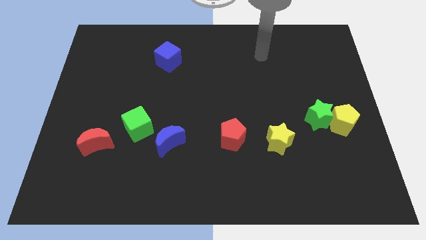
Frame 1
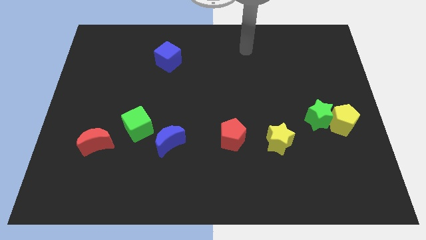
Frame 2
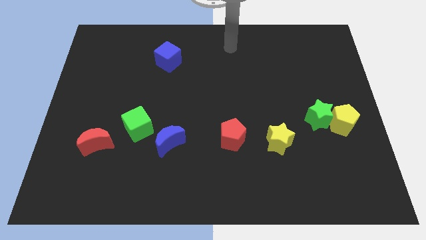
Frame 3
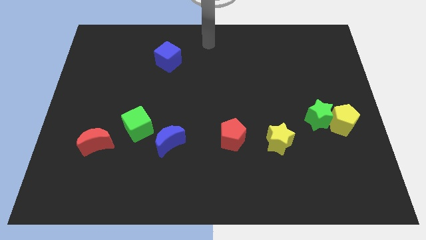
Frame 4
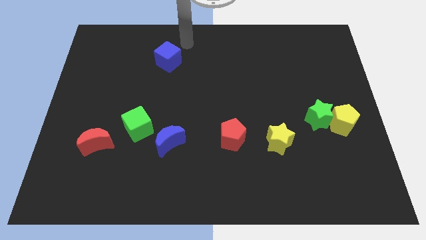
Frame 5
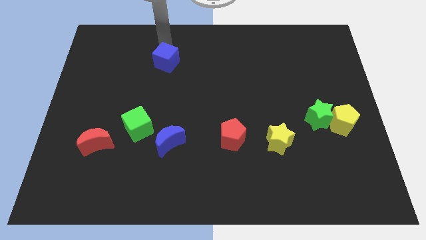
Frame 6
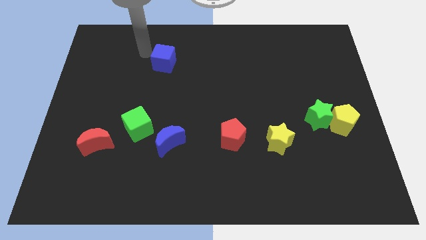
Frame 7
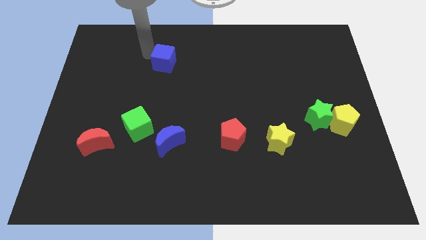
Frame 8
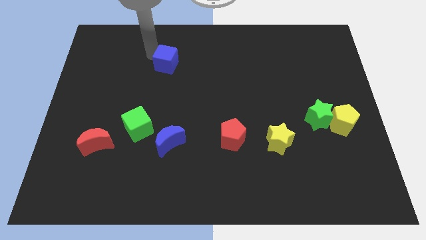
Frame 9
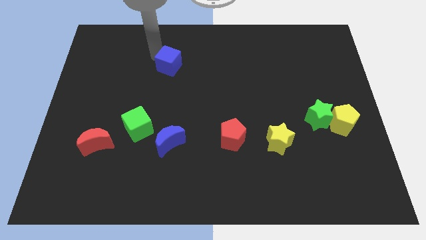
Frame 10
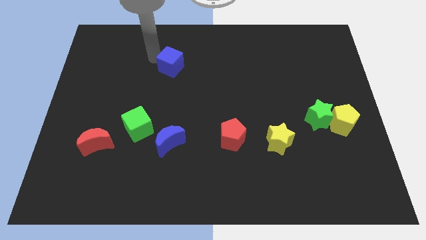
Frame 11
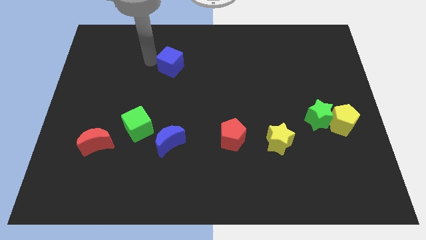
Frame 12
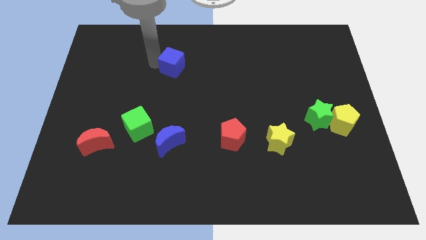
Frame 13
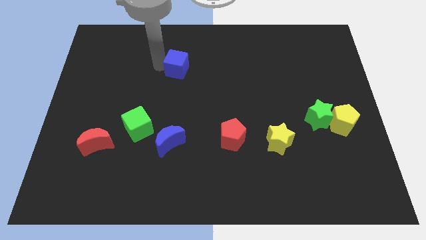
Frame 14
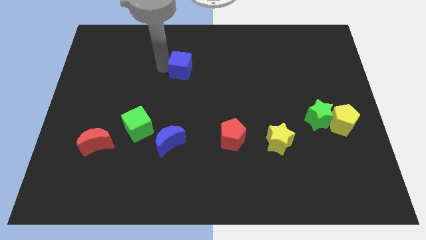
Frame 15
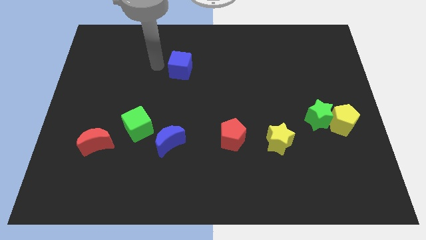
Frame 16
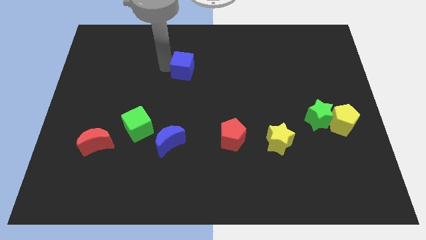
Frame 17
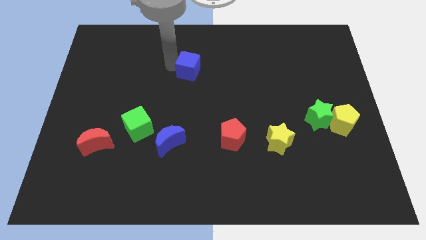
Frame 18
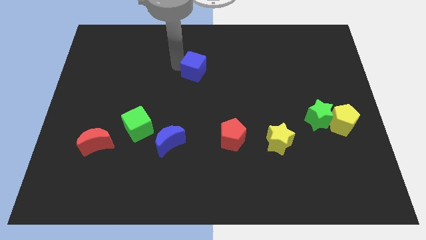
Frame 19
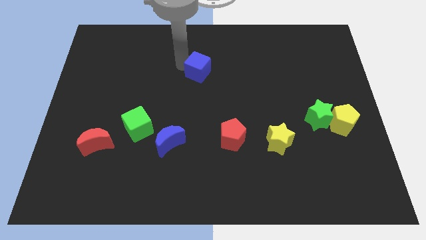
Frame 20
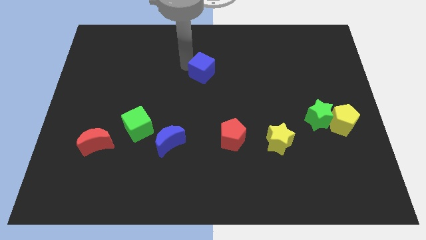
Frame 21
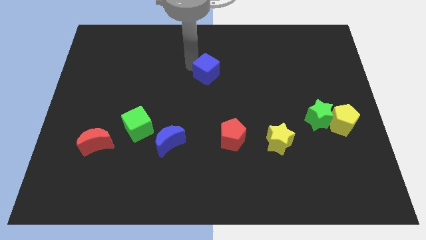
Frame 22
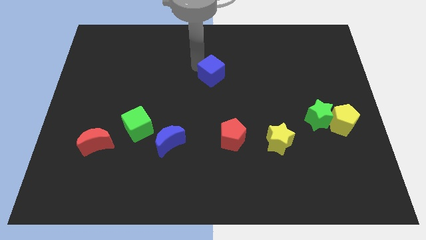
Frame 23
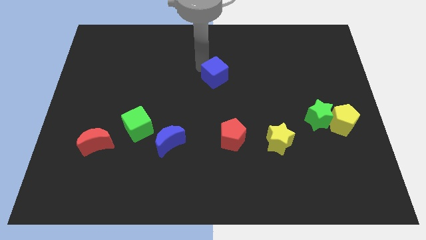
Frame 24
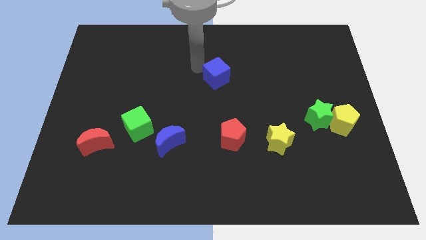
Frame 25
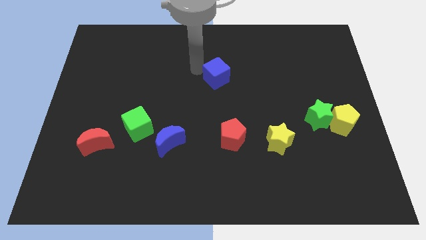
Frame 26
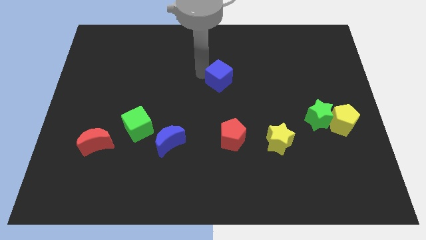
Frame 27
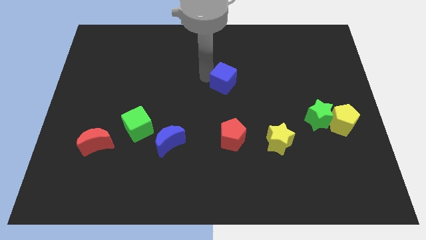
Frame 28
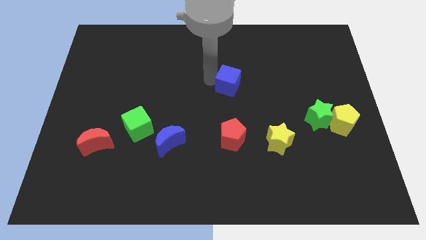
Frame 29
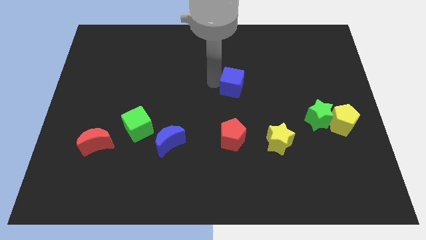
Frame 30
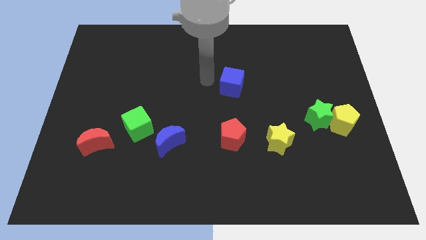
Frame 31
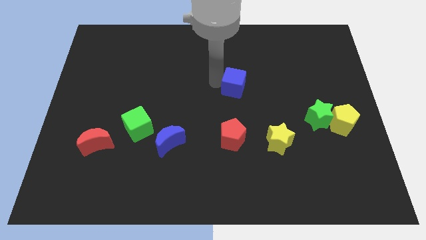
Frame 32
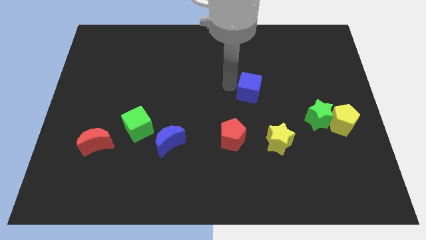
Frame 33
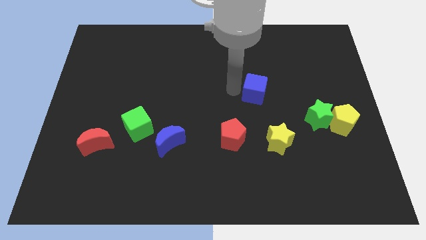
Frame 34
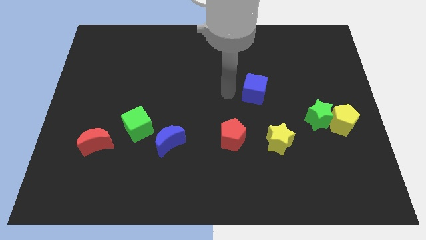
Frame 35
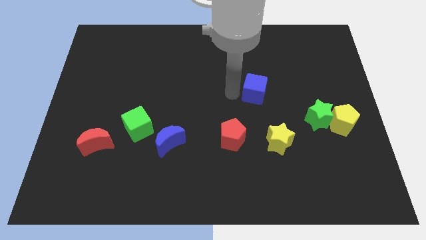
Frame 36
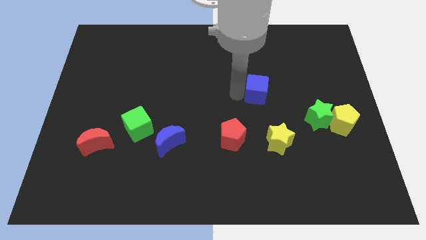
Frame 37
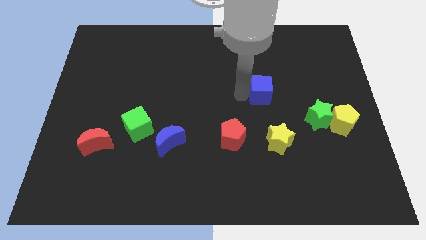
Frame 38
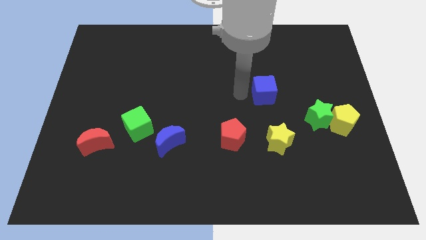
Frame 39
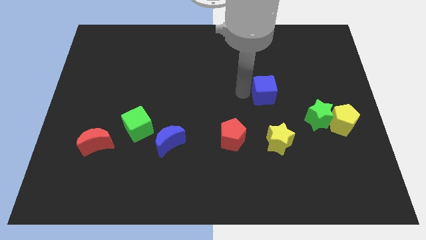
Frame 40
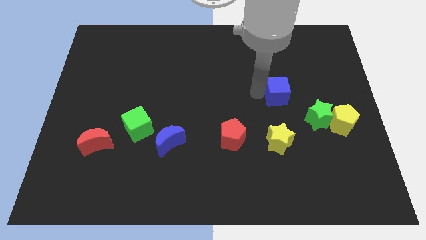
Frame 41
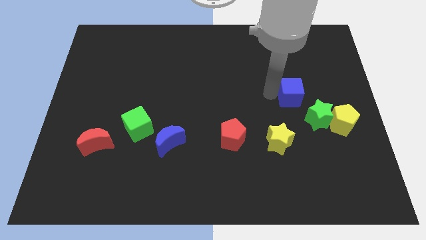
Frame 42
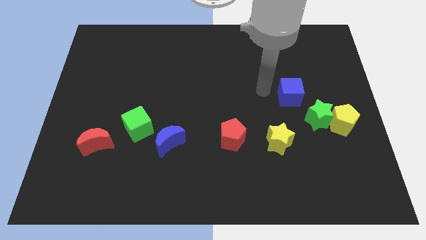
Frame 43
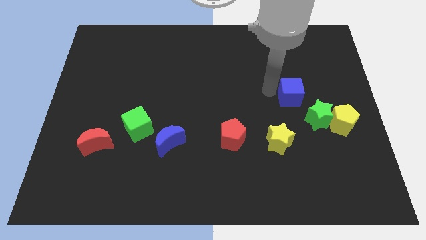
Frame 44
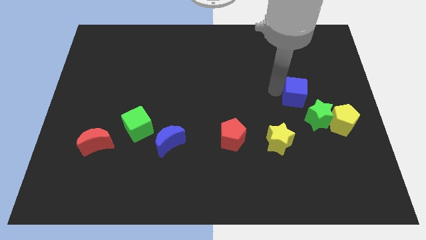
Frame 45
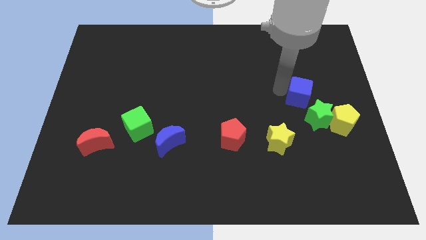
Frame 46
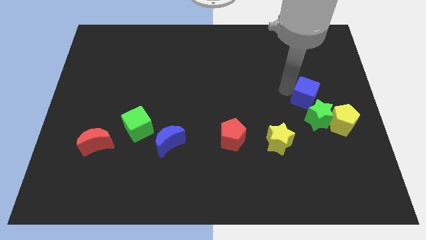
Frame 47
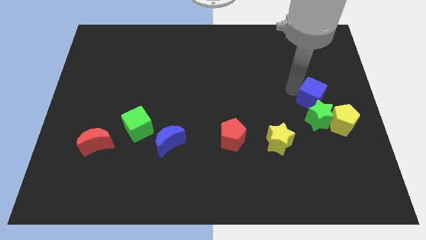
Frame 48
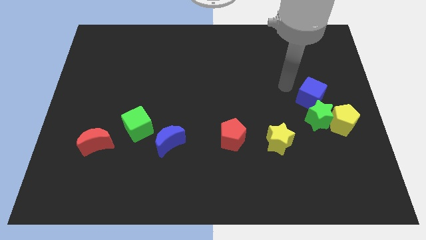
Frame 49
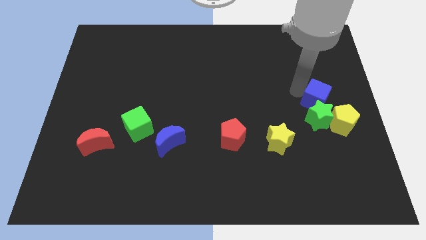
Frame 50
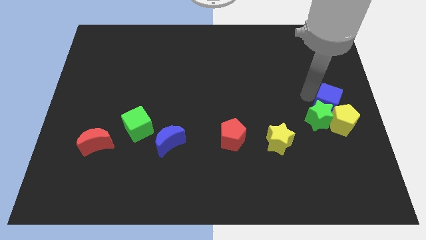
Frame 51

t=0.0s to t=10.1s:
push the blue cube close to the yellow pentagon

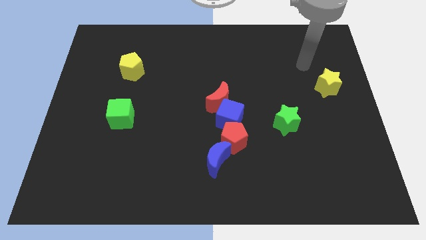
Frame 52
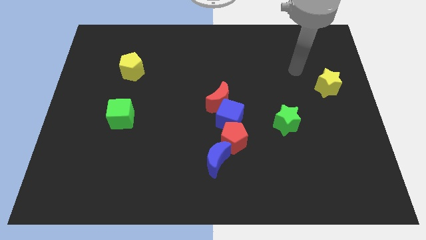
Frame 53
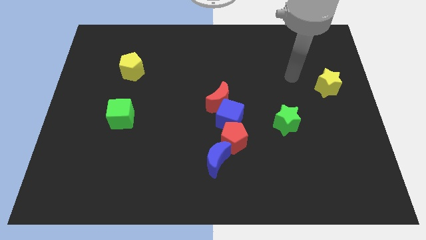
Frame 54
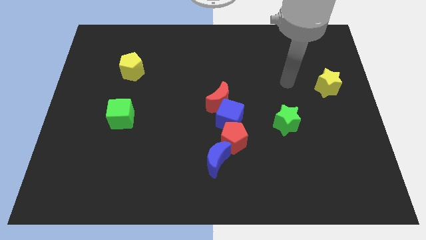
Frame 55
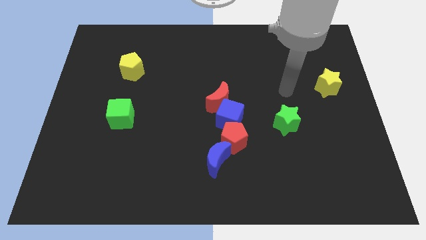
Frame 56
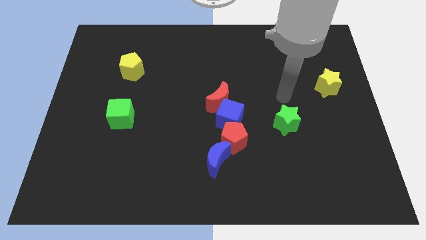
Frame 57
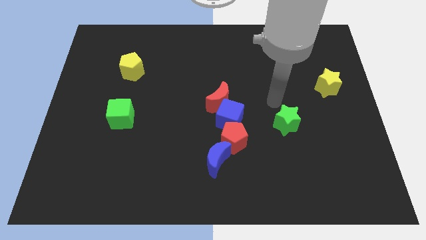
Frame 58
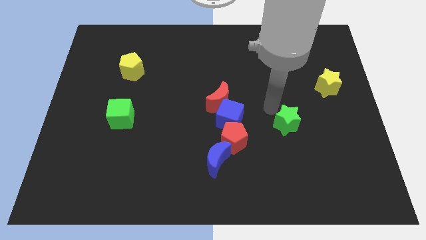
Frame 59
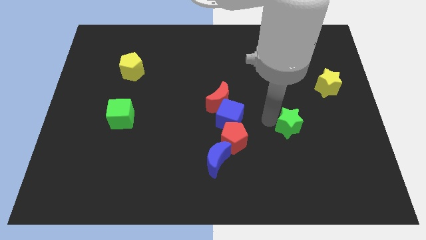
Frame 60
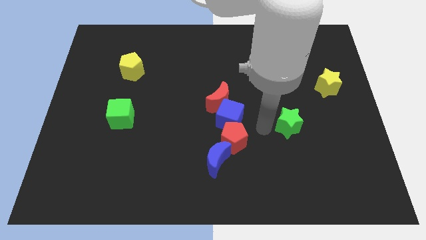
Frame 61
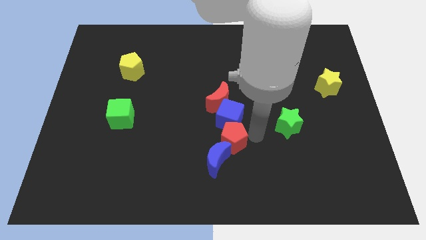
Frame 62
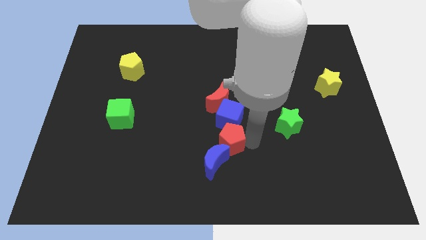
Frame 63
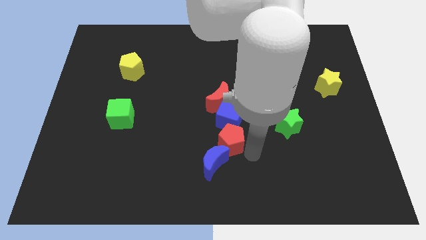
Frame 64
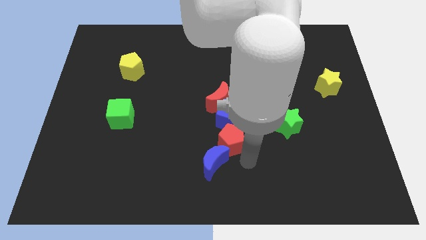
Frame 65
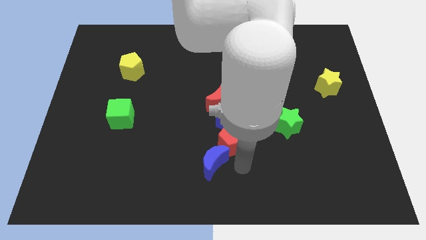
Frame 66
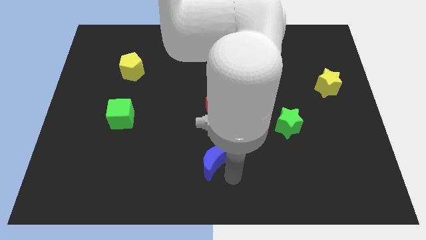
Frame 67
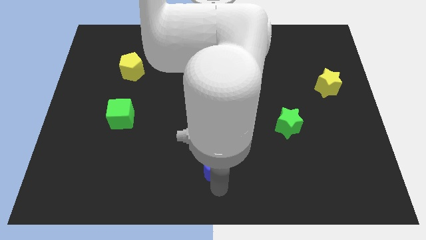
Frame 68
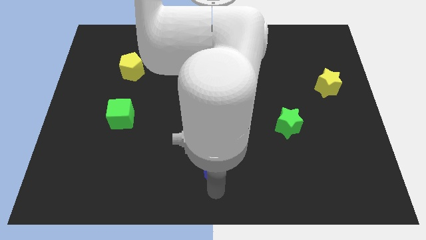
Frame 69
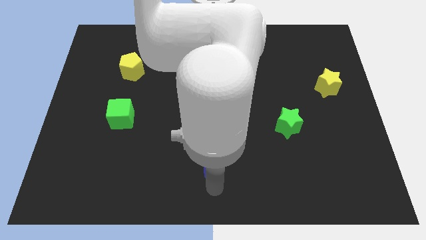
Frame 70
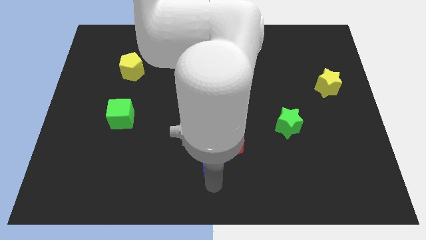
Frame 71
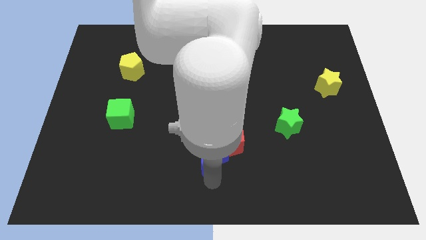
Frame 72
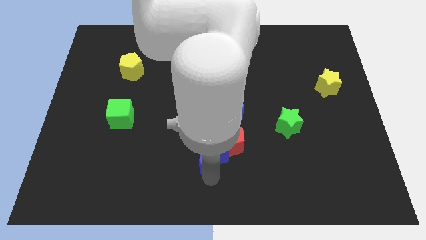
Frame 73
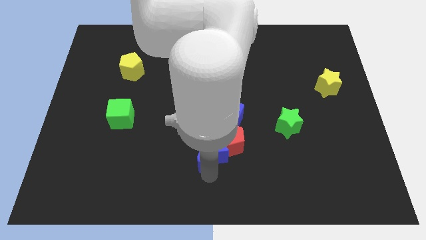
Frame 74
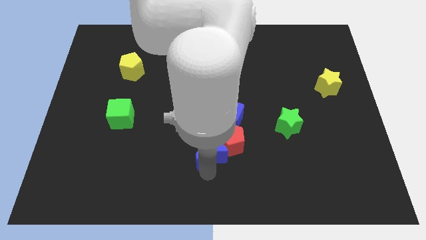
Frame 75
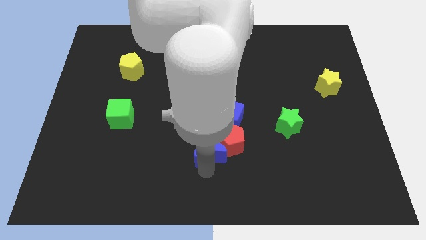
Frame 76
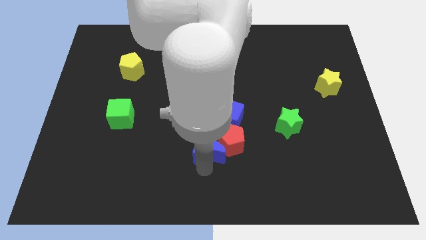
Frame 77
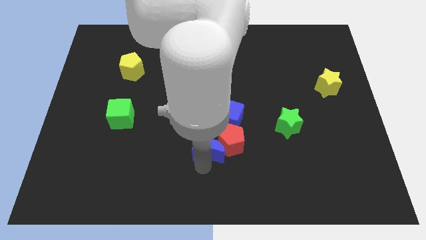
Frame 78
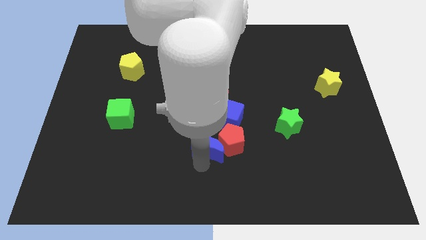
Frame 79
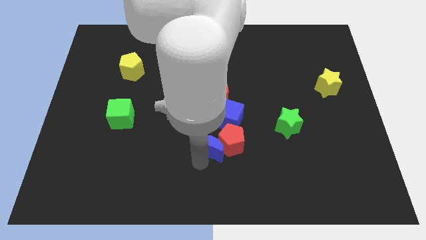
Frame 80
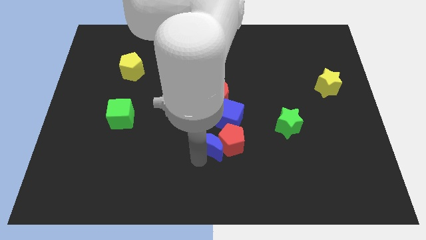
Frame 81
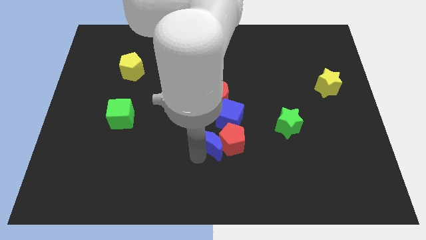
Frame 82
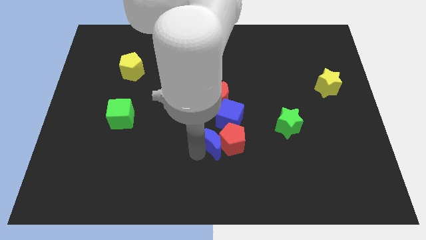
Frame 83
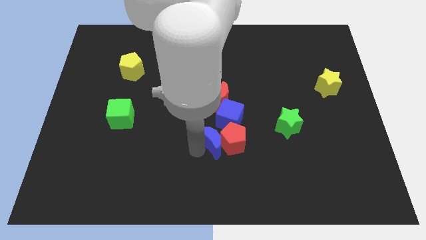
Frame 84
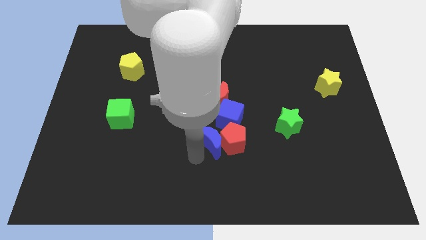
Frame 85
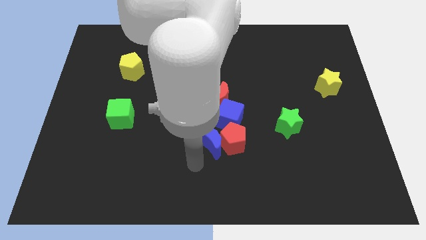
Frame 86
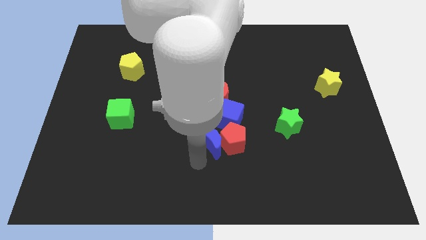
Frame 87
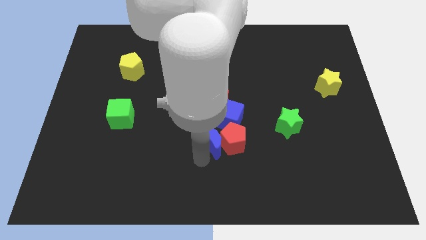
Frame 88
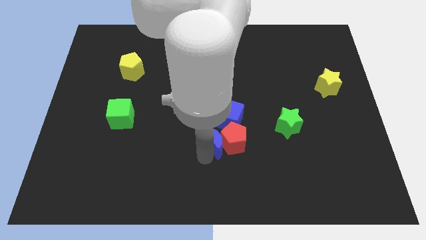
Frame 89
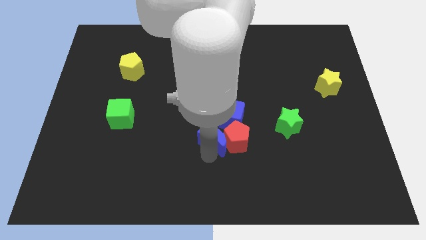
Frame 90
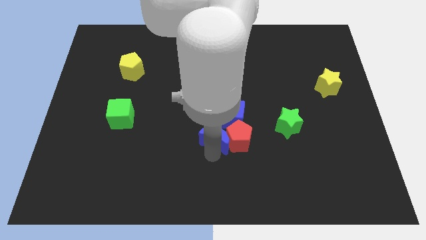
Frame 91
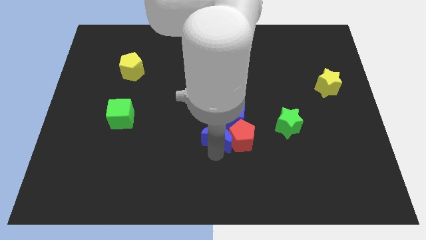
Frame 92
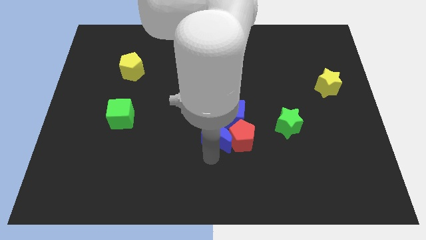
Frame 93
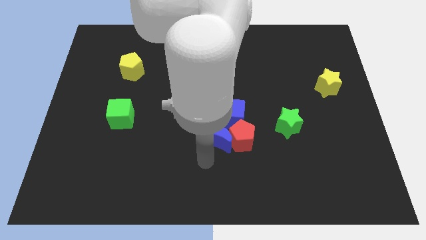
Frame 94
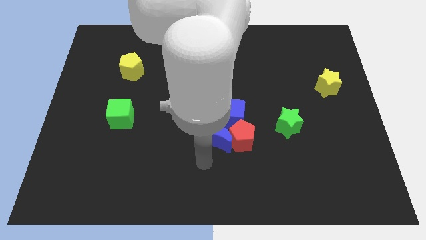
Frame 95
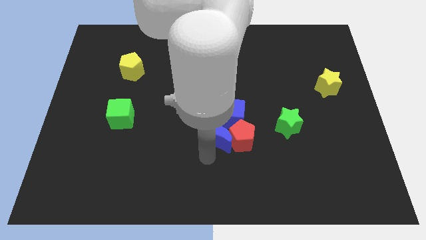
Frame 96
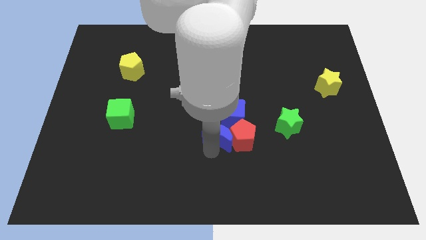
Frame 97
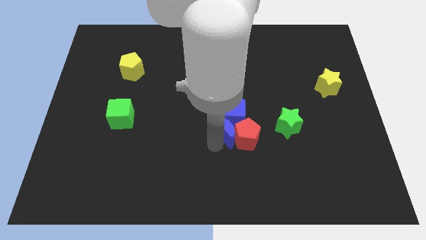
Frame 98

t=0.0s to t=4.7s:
move the blue moon towards the blue cube
